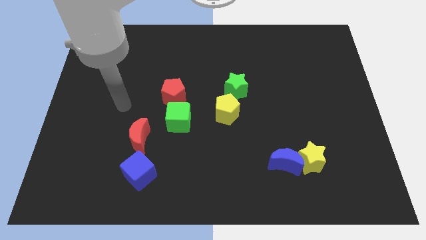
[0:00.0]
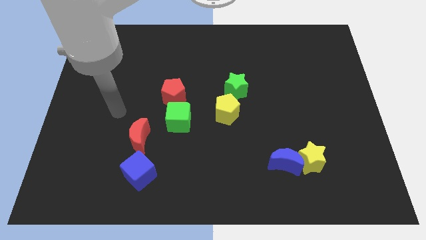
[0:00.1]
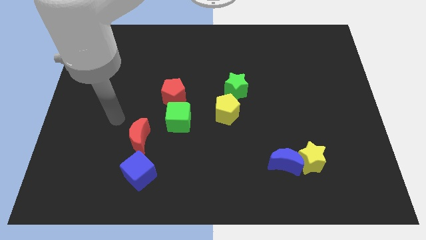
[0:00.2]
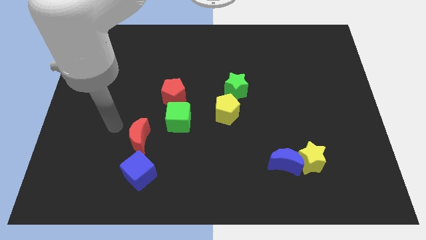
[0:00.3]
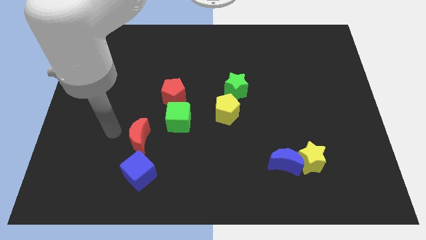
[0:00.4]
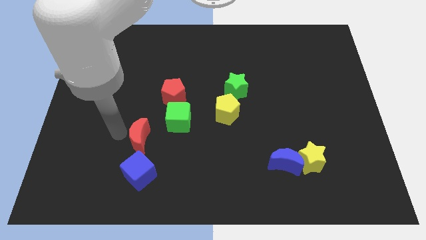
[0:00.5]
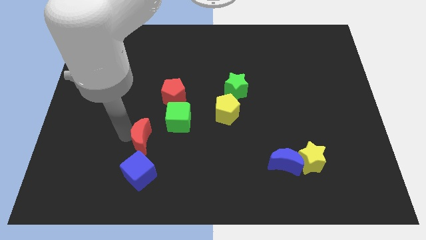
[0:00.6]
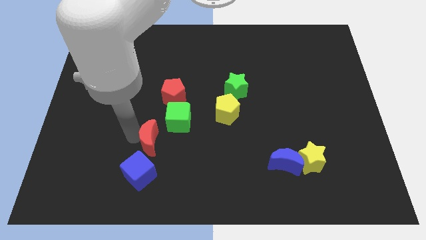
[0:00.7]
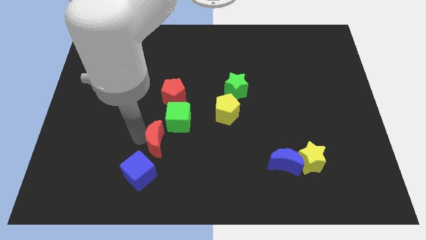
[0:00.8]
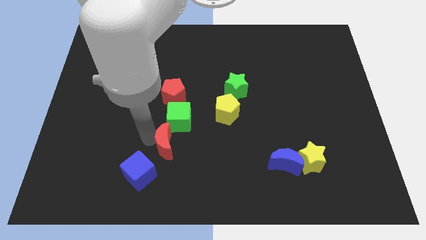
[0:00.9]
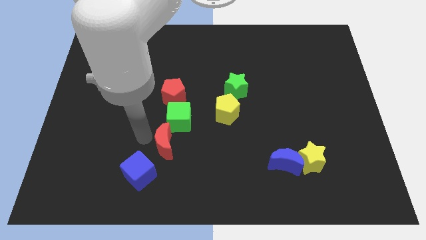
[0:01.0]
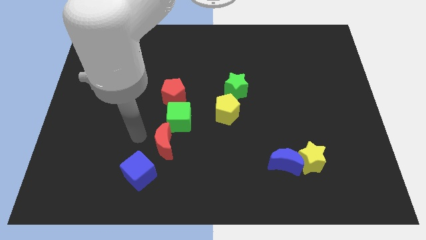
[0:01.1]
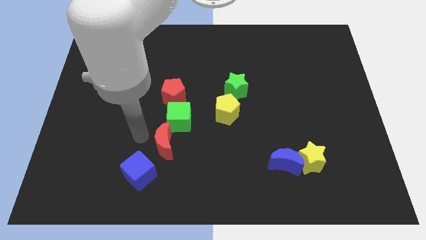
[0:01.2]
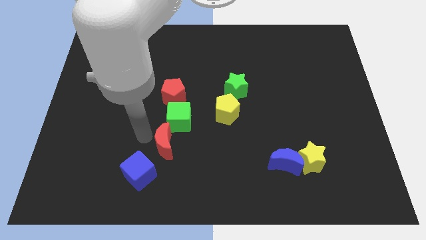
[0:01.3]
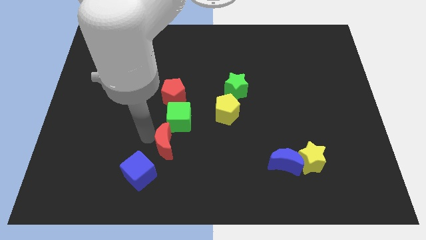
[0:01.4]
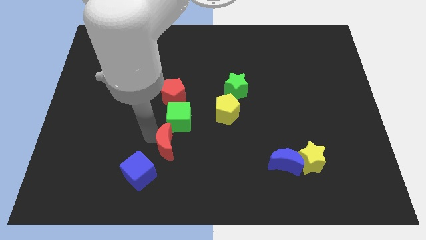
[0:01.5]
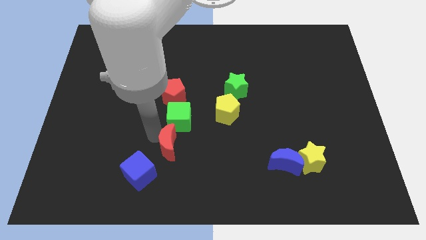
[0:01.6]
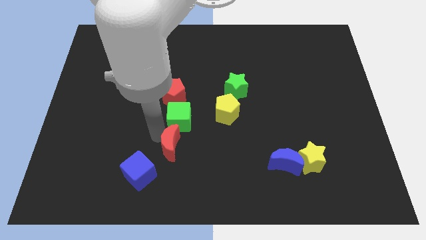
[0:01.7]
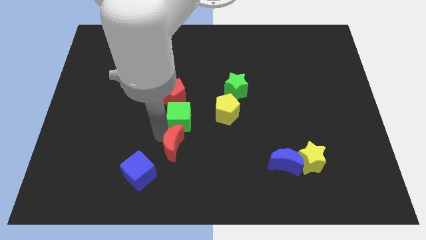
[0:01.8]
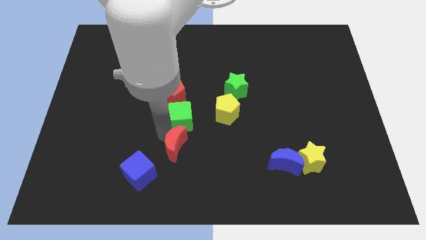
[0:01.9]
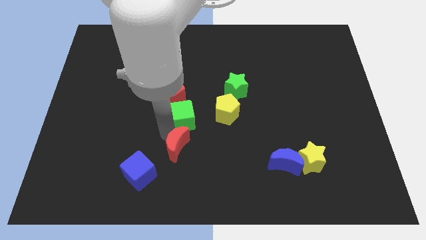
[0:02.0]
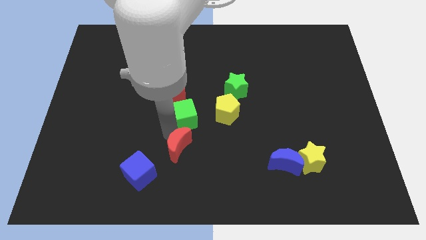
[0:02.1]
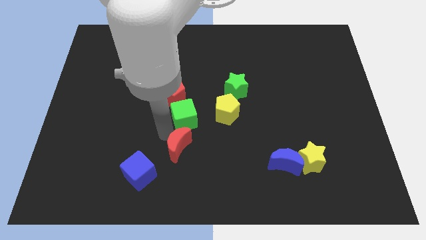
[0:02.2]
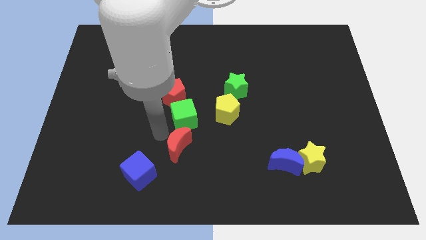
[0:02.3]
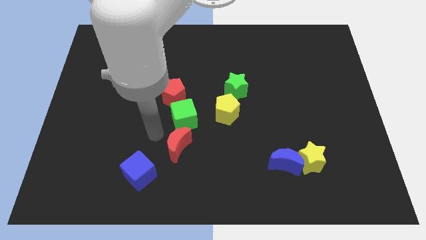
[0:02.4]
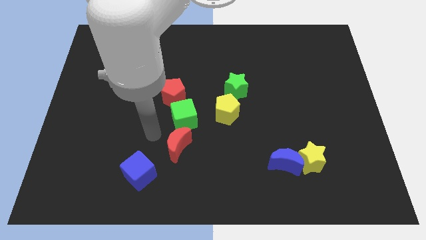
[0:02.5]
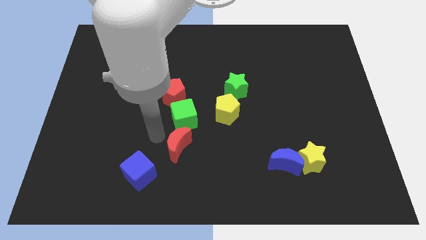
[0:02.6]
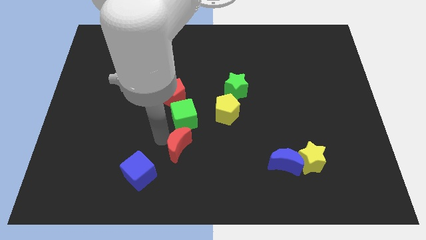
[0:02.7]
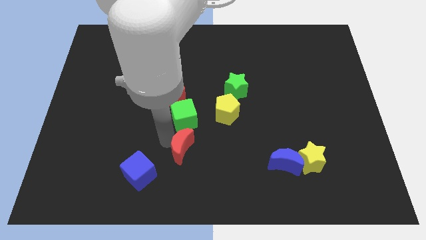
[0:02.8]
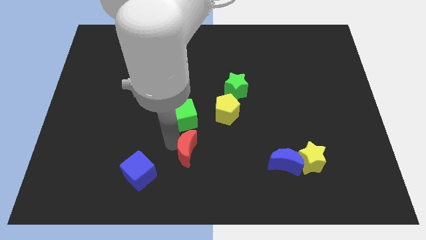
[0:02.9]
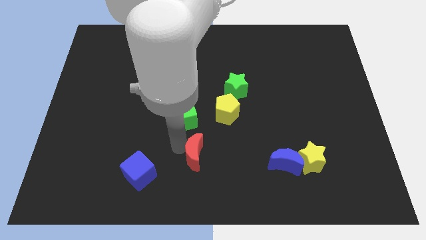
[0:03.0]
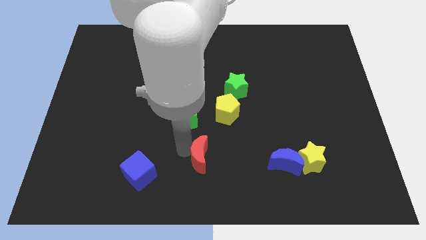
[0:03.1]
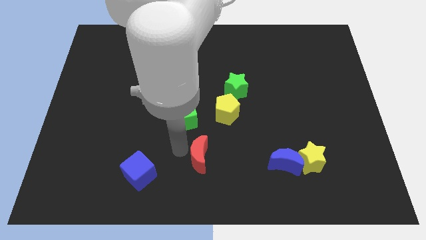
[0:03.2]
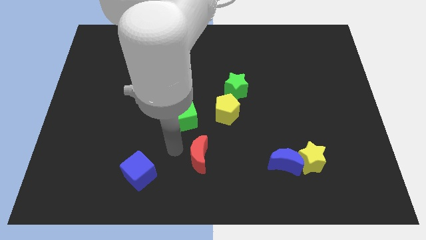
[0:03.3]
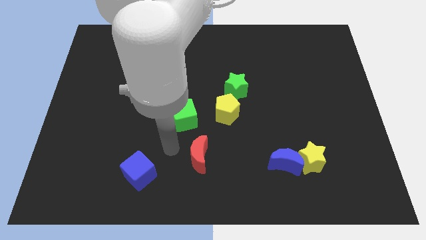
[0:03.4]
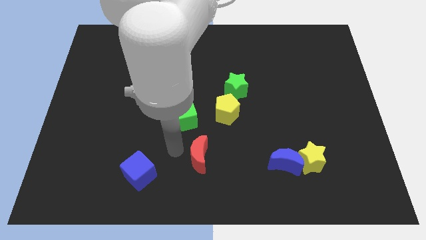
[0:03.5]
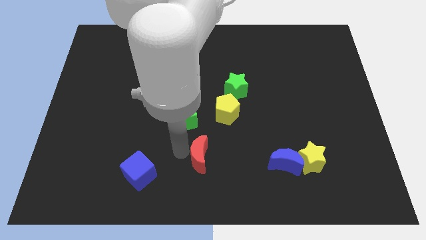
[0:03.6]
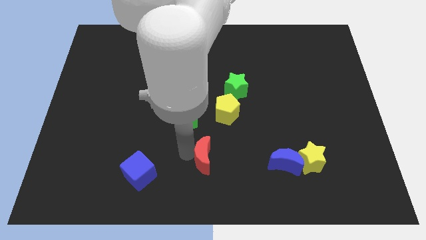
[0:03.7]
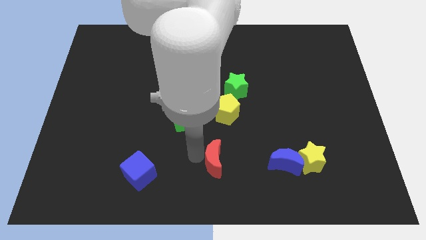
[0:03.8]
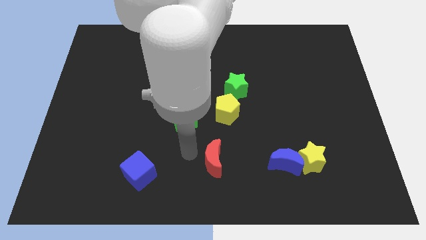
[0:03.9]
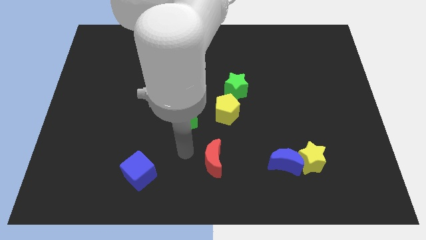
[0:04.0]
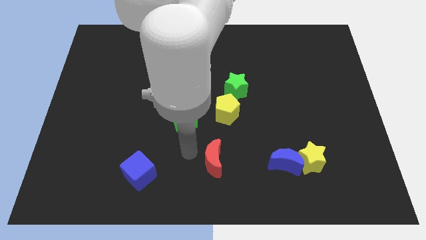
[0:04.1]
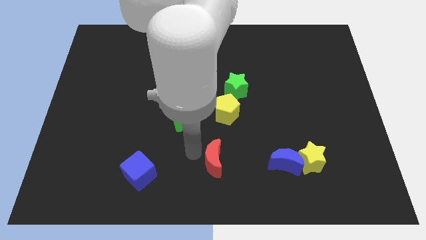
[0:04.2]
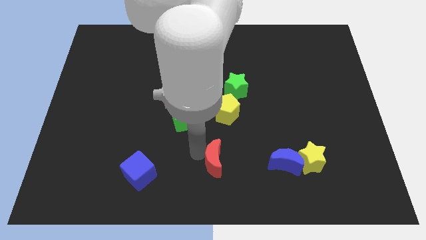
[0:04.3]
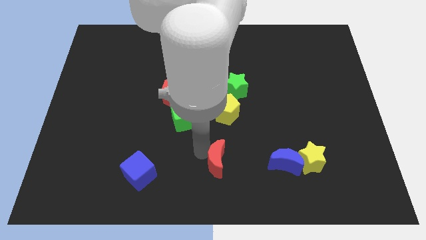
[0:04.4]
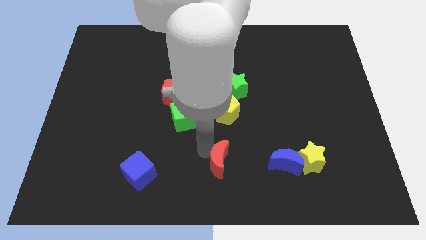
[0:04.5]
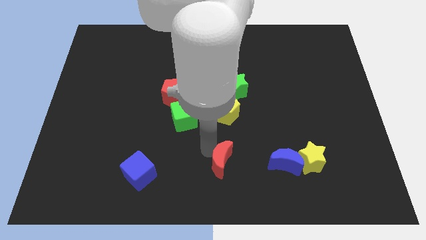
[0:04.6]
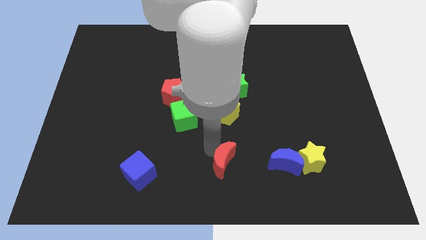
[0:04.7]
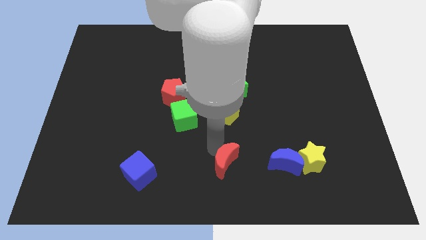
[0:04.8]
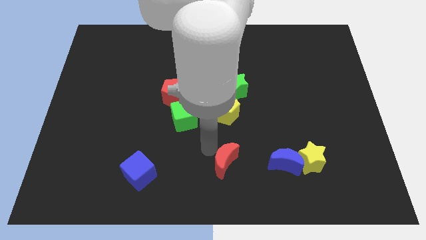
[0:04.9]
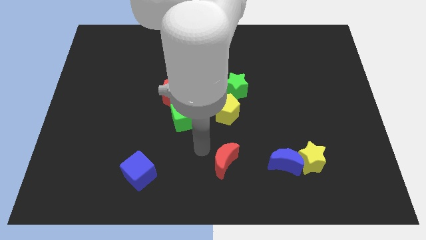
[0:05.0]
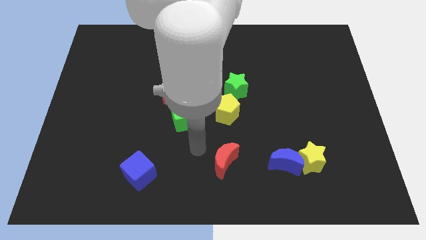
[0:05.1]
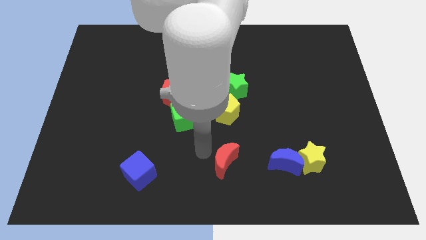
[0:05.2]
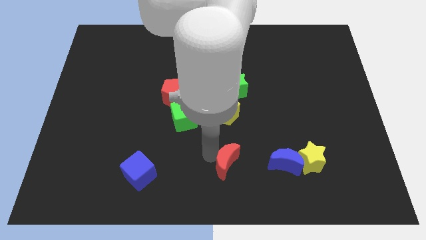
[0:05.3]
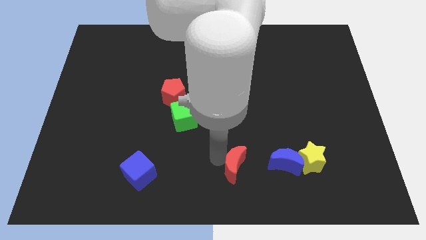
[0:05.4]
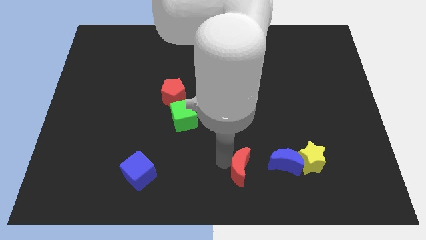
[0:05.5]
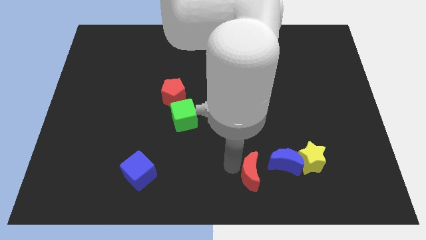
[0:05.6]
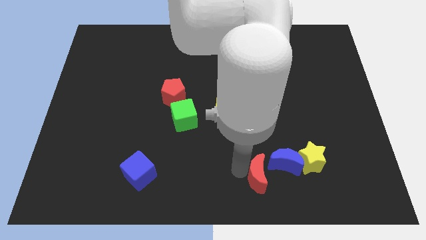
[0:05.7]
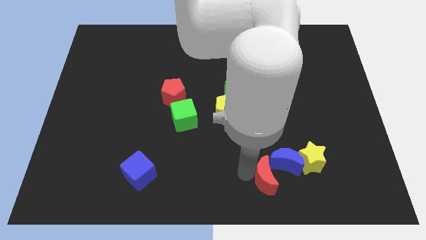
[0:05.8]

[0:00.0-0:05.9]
push the red moon to the bottom left side of the yellow star

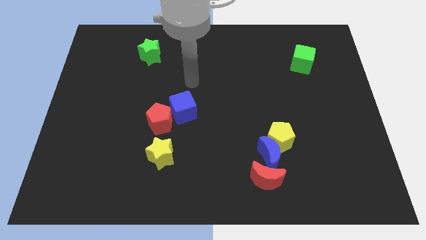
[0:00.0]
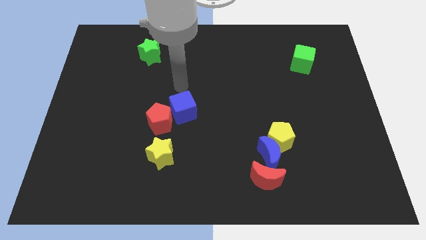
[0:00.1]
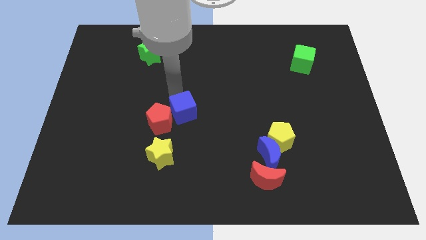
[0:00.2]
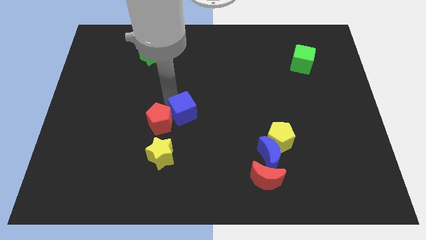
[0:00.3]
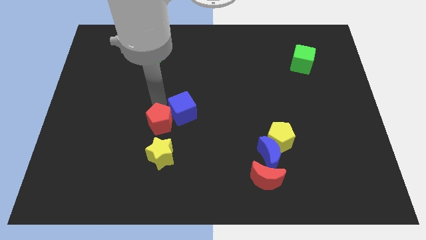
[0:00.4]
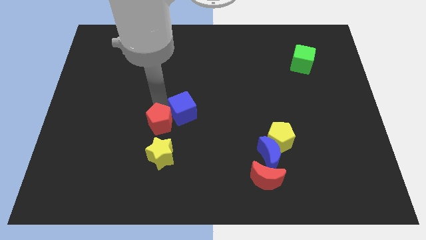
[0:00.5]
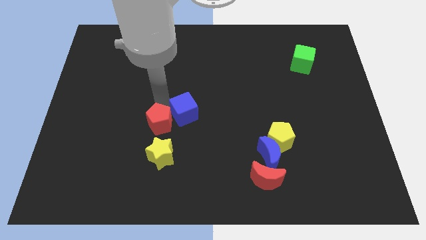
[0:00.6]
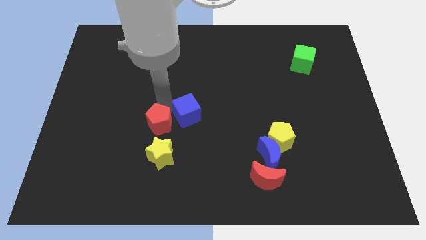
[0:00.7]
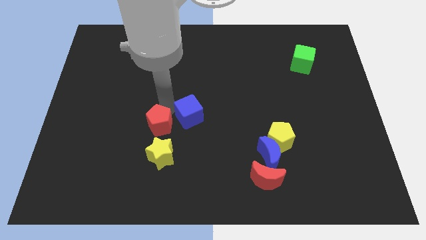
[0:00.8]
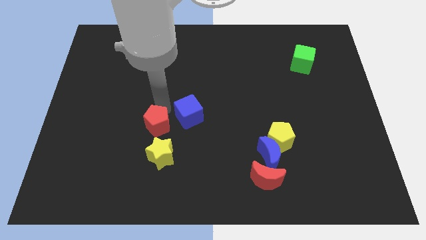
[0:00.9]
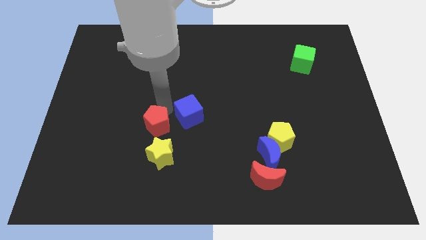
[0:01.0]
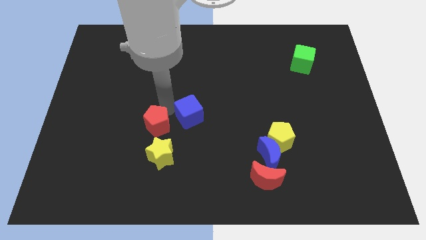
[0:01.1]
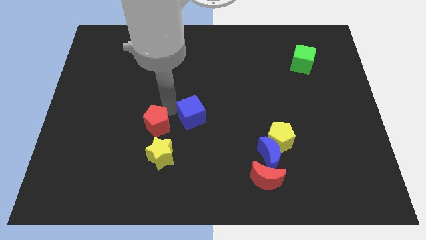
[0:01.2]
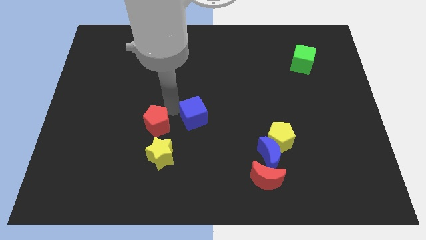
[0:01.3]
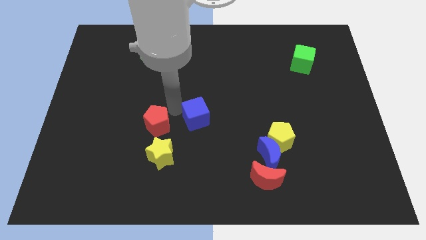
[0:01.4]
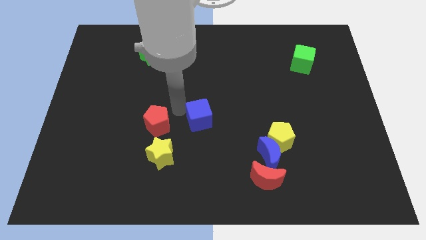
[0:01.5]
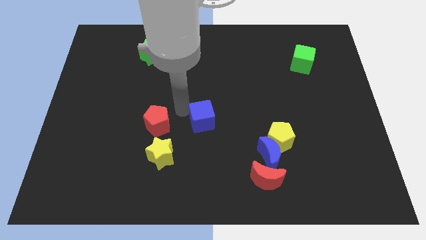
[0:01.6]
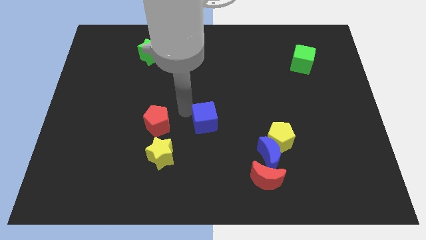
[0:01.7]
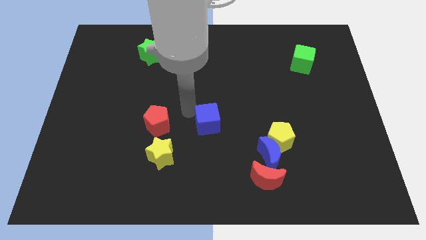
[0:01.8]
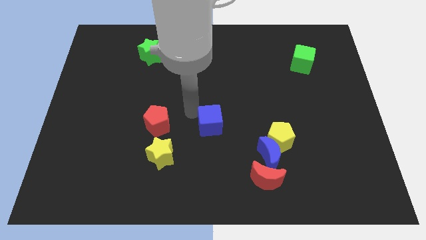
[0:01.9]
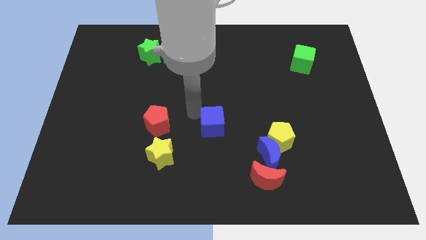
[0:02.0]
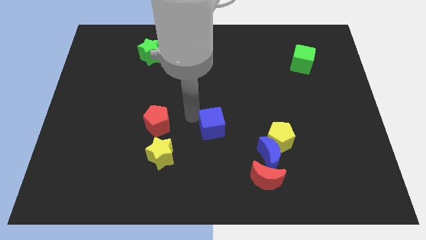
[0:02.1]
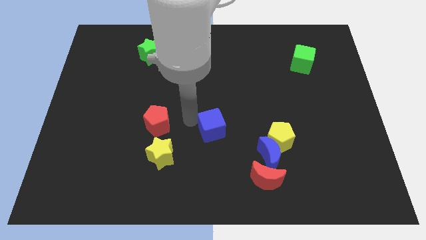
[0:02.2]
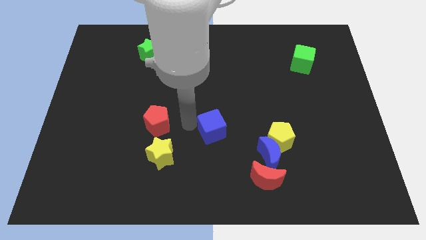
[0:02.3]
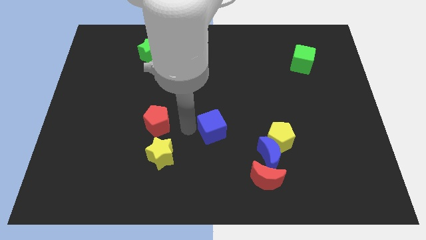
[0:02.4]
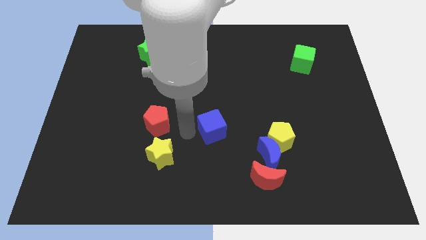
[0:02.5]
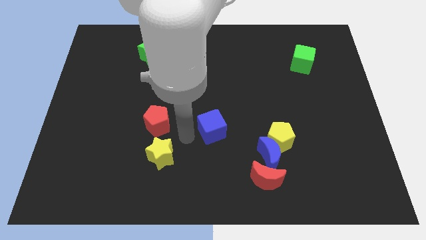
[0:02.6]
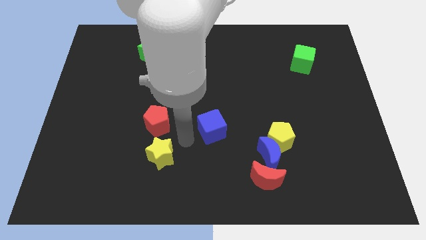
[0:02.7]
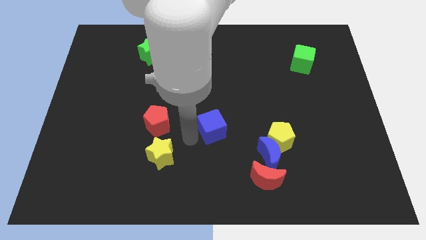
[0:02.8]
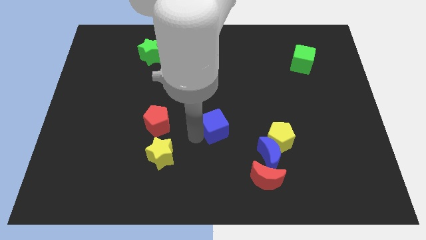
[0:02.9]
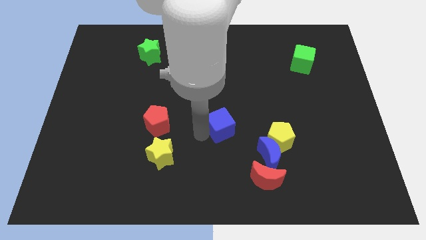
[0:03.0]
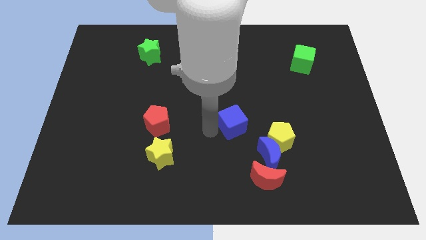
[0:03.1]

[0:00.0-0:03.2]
put the blue cube diagonally up and to the left of the yellow pentagon
